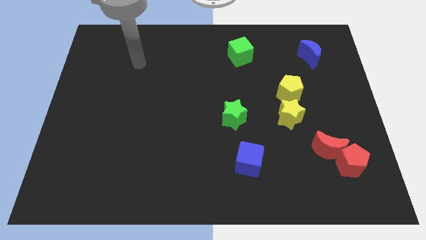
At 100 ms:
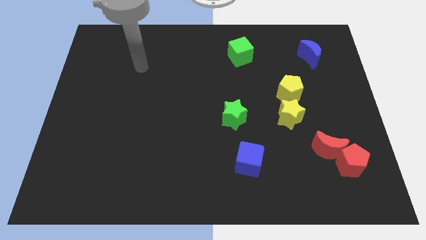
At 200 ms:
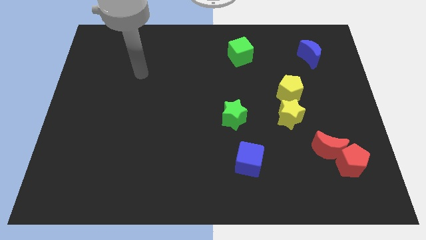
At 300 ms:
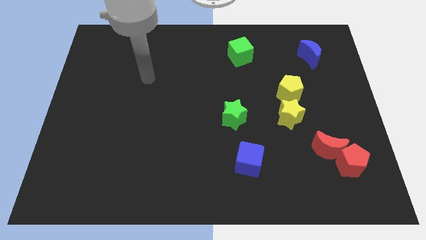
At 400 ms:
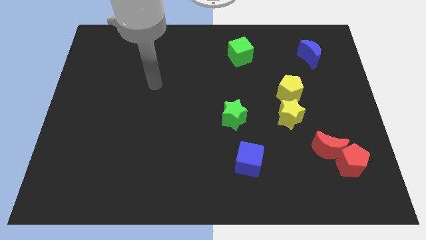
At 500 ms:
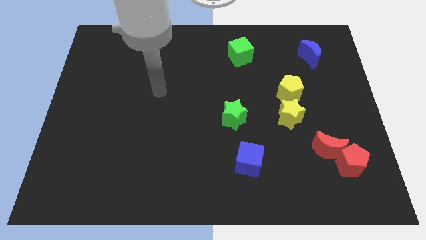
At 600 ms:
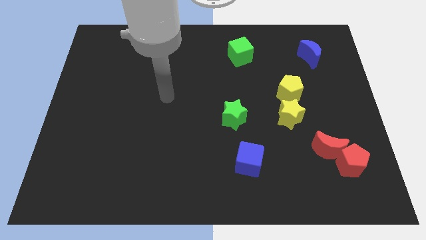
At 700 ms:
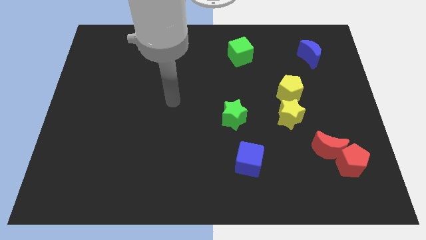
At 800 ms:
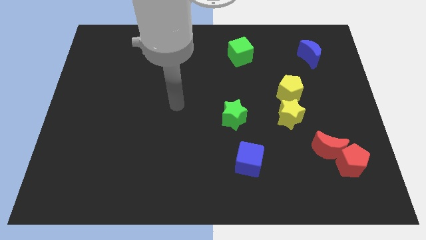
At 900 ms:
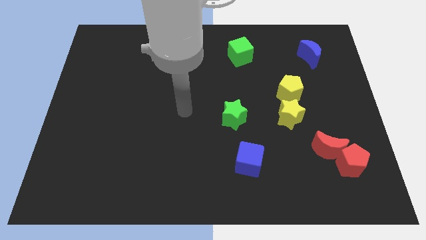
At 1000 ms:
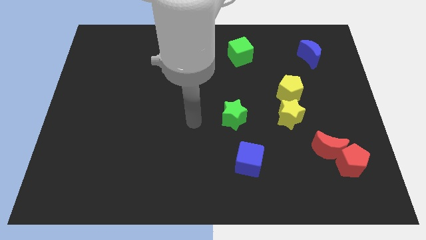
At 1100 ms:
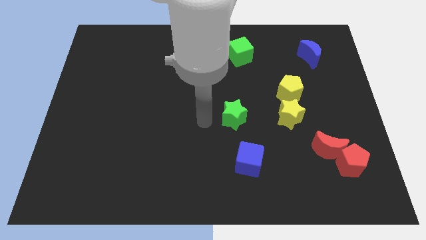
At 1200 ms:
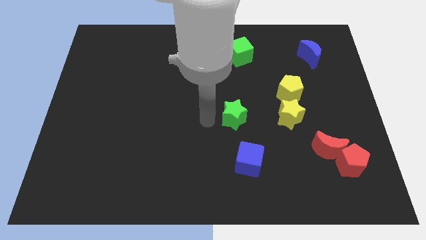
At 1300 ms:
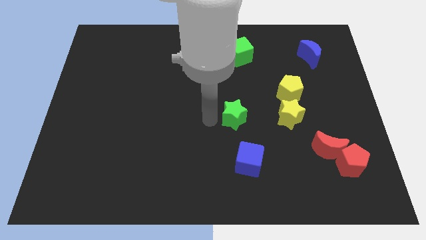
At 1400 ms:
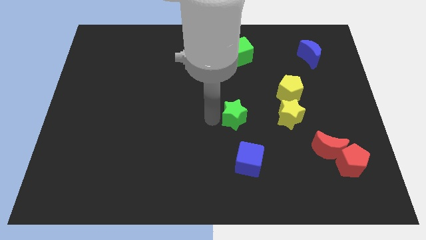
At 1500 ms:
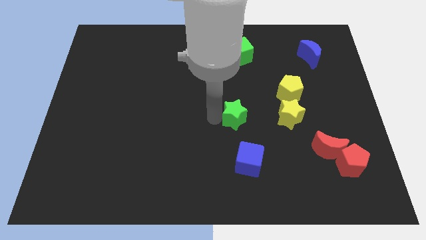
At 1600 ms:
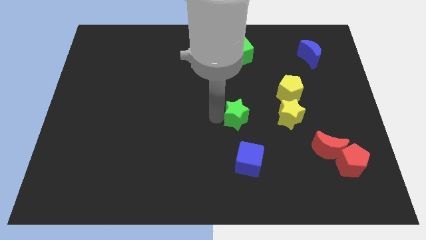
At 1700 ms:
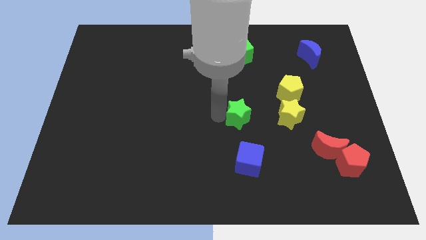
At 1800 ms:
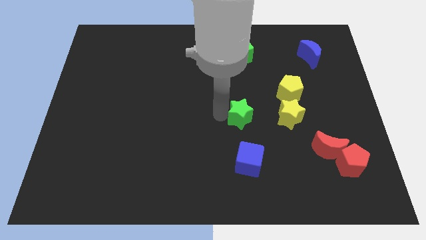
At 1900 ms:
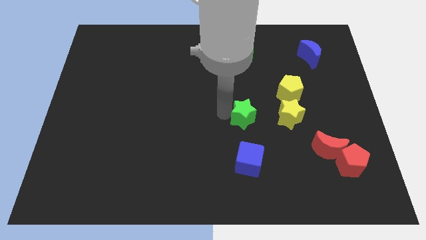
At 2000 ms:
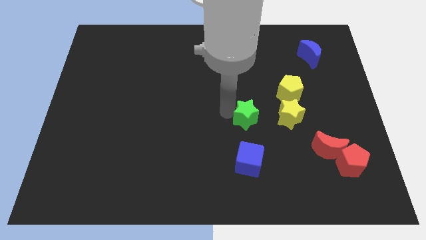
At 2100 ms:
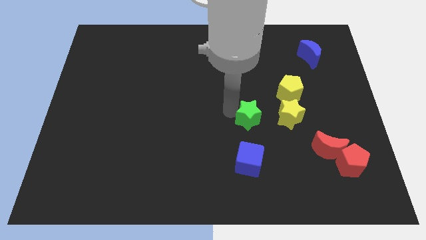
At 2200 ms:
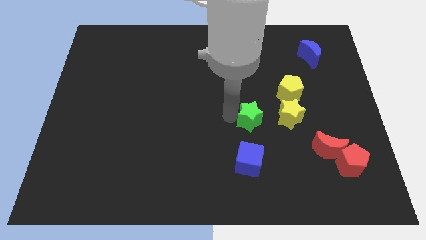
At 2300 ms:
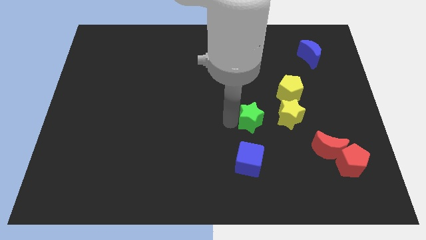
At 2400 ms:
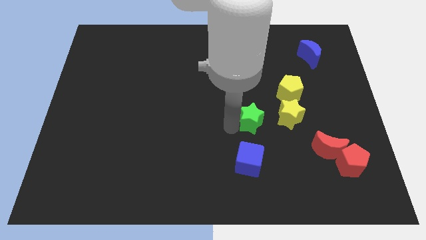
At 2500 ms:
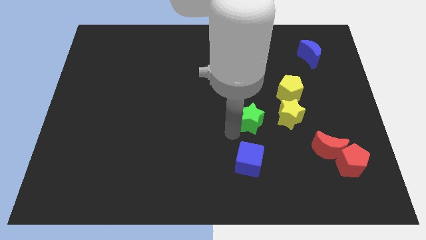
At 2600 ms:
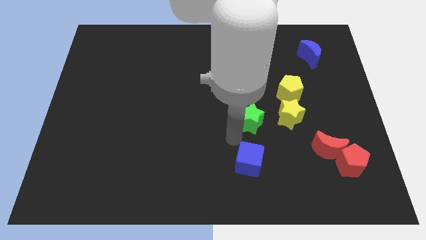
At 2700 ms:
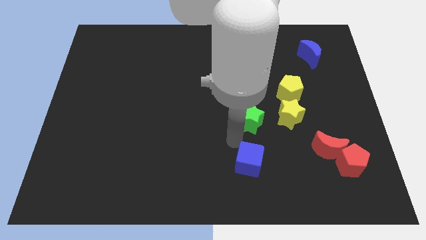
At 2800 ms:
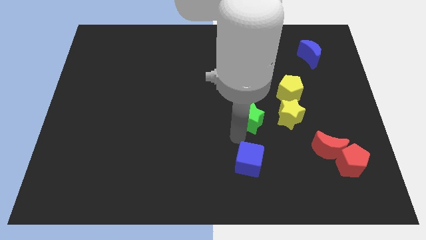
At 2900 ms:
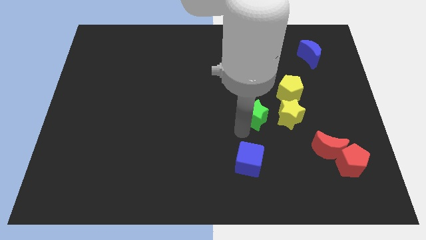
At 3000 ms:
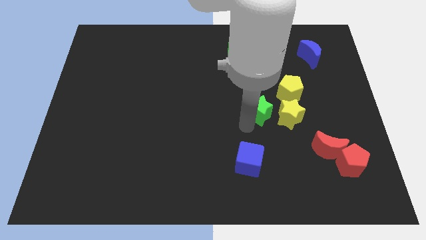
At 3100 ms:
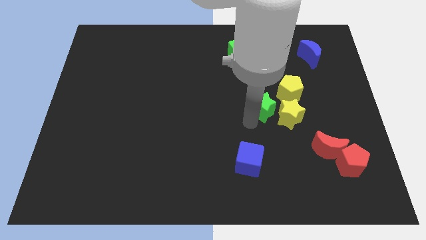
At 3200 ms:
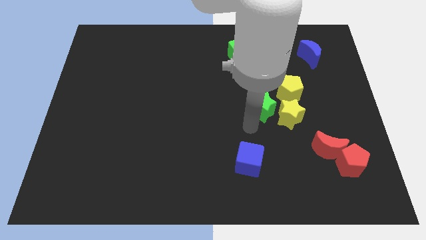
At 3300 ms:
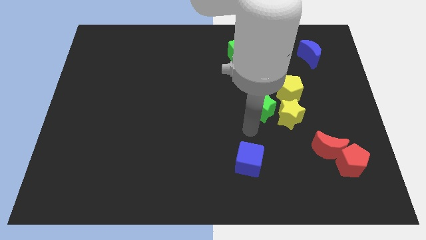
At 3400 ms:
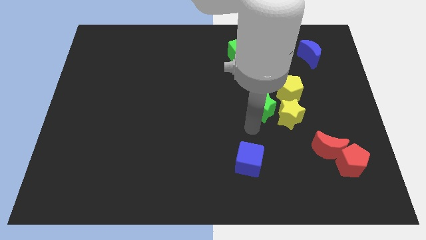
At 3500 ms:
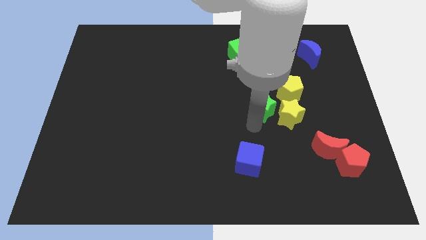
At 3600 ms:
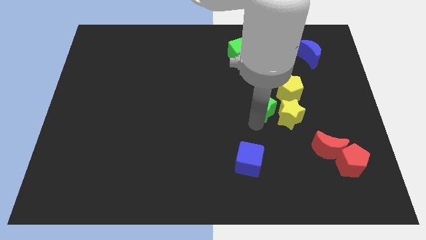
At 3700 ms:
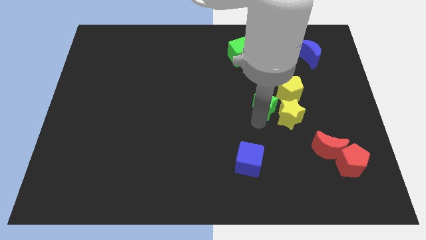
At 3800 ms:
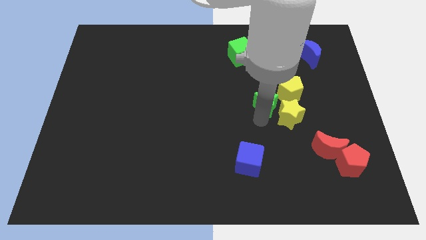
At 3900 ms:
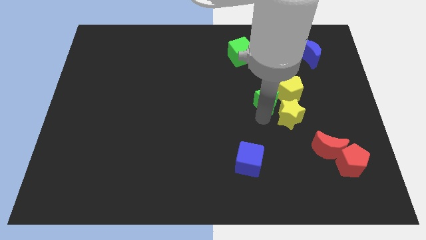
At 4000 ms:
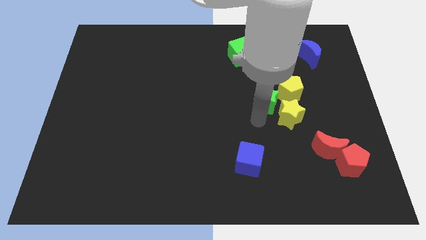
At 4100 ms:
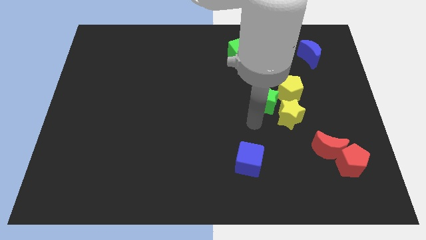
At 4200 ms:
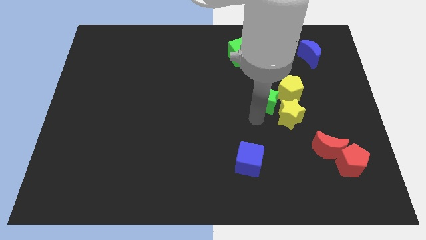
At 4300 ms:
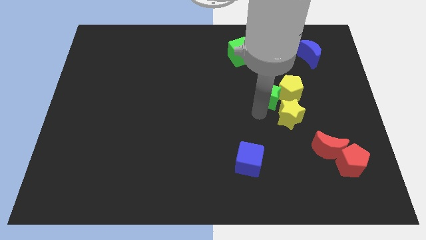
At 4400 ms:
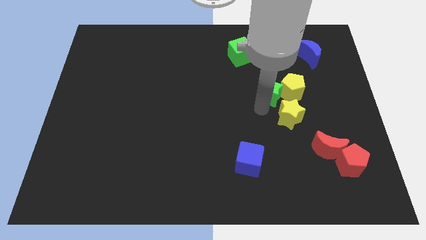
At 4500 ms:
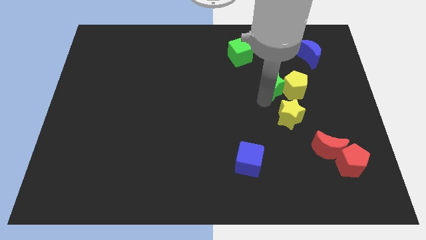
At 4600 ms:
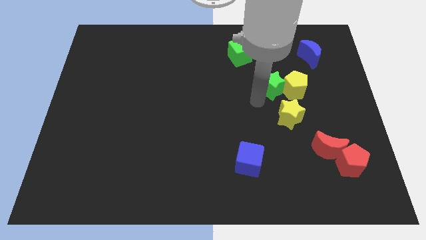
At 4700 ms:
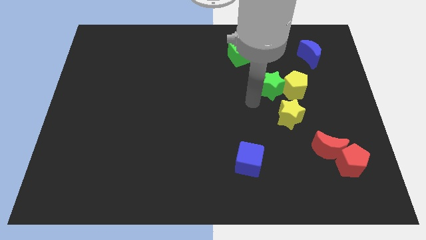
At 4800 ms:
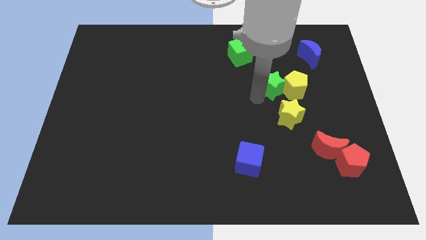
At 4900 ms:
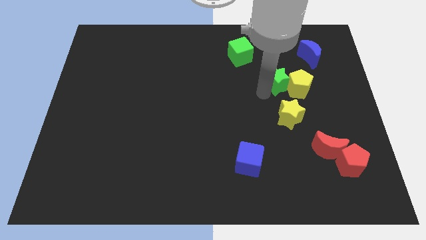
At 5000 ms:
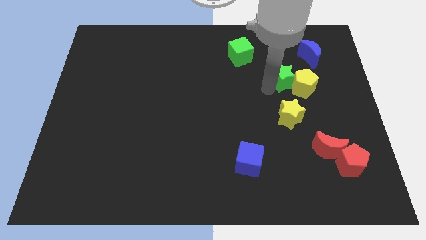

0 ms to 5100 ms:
push the green star to the bottom left of the blue moon

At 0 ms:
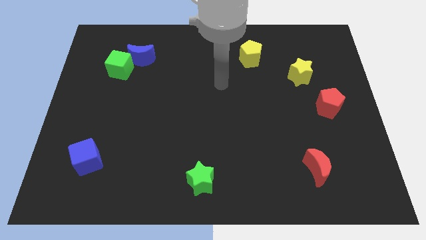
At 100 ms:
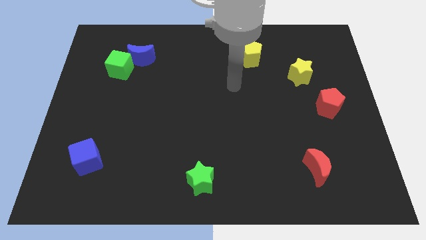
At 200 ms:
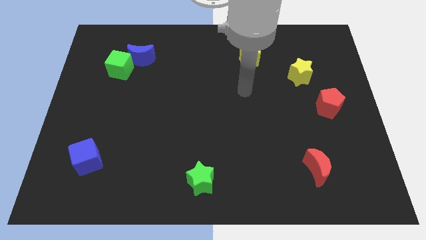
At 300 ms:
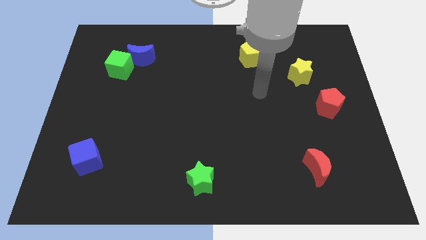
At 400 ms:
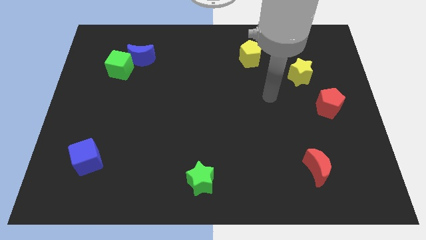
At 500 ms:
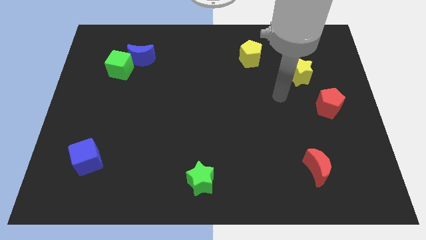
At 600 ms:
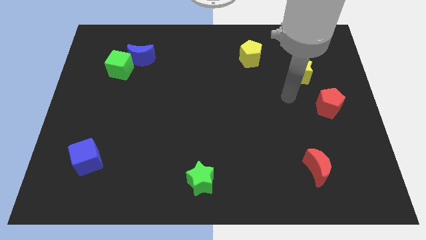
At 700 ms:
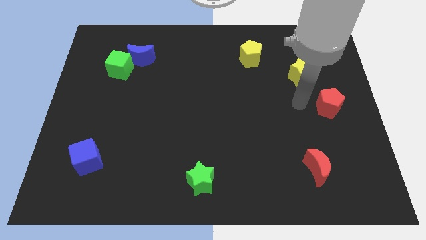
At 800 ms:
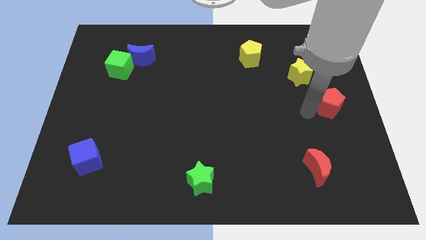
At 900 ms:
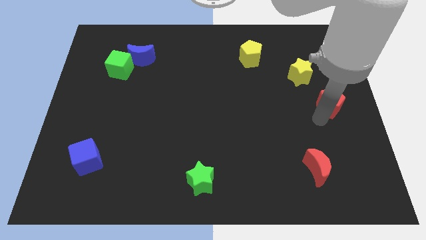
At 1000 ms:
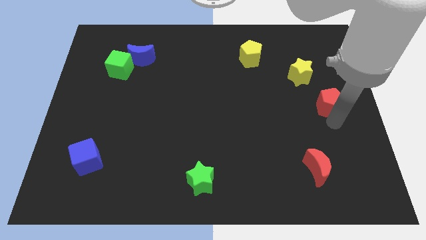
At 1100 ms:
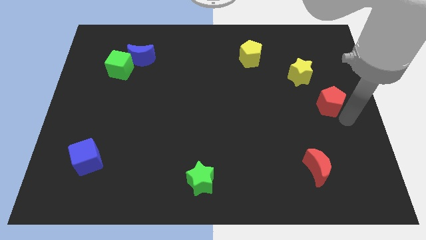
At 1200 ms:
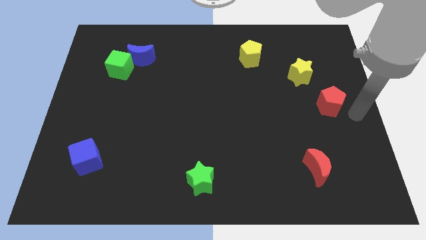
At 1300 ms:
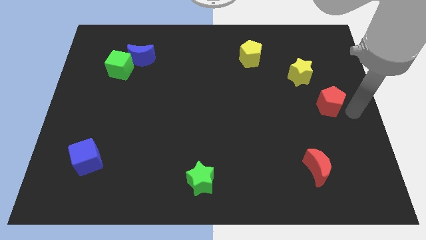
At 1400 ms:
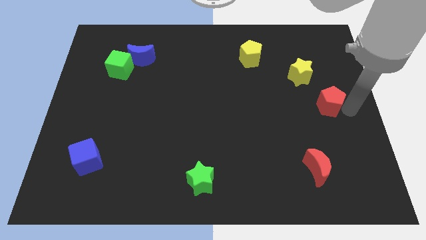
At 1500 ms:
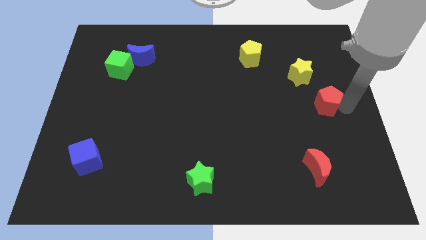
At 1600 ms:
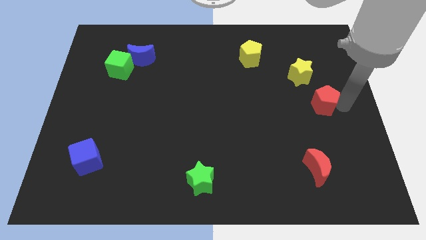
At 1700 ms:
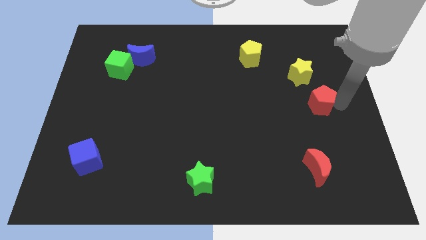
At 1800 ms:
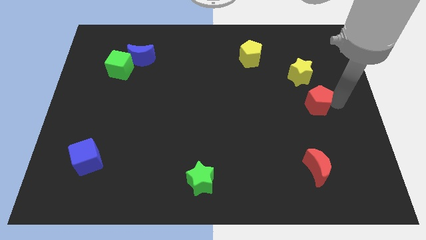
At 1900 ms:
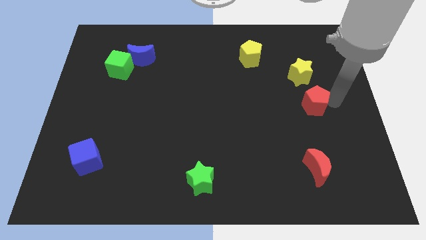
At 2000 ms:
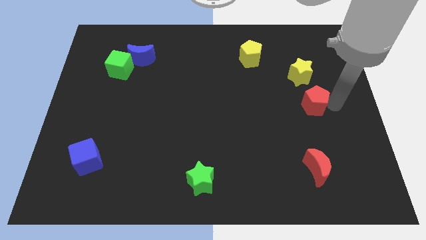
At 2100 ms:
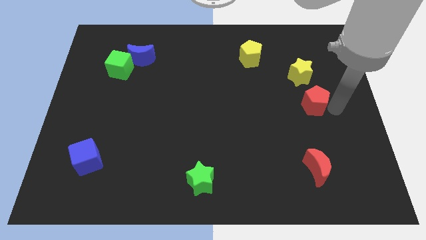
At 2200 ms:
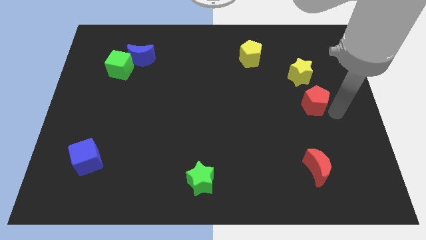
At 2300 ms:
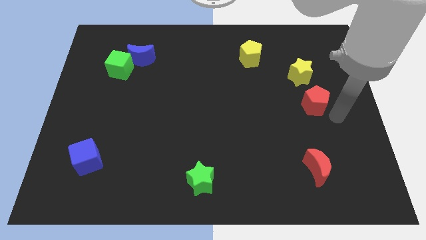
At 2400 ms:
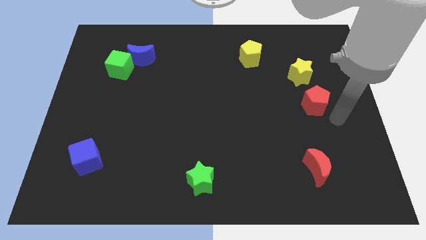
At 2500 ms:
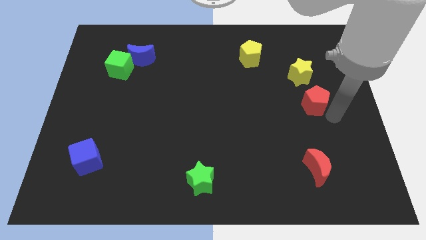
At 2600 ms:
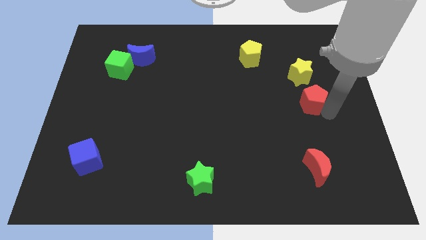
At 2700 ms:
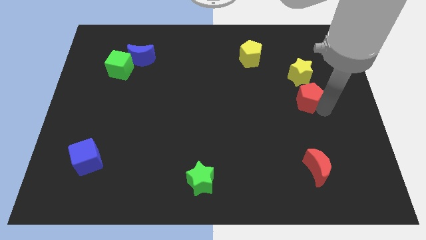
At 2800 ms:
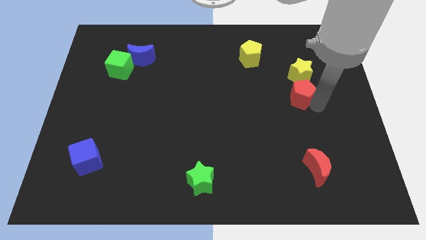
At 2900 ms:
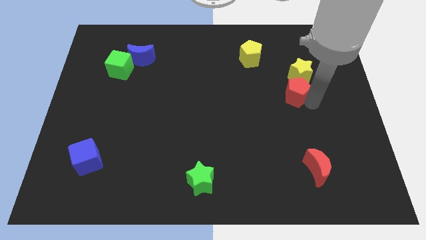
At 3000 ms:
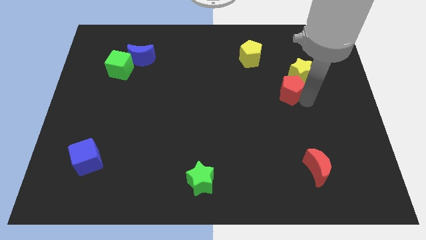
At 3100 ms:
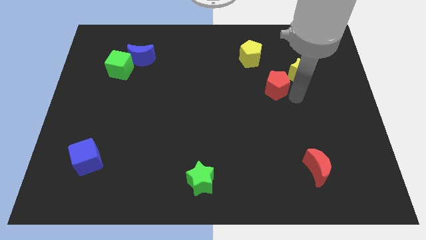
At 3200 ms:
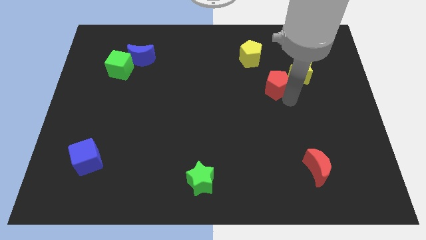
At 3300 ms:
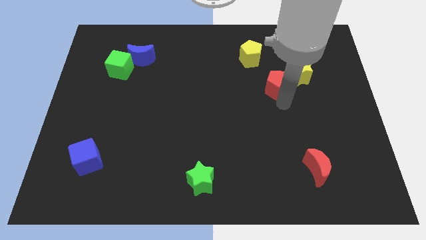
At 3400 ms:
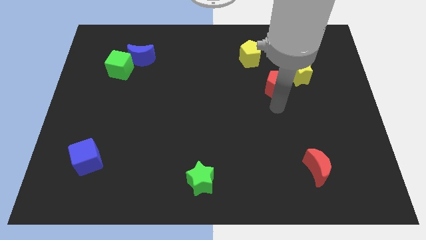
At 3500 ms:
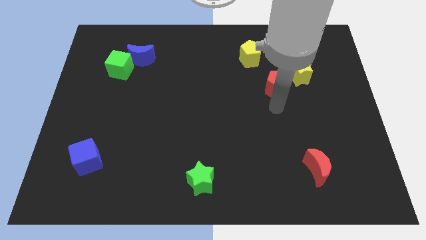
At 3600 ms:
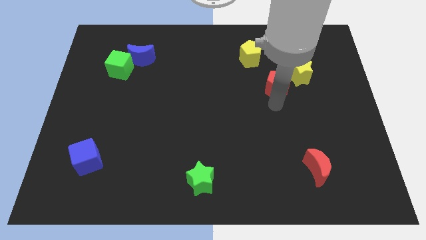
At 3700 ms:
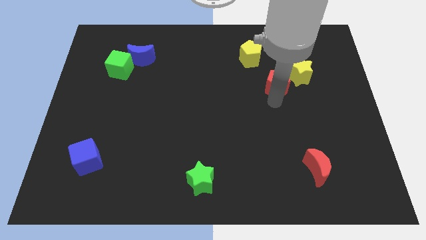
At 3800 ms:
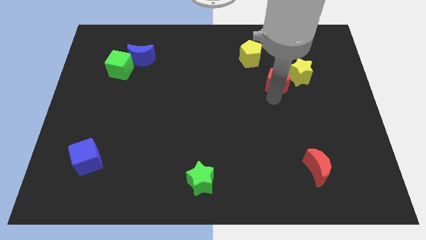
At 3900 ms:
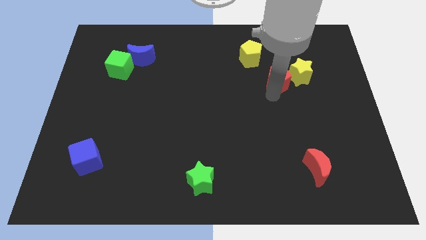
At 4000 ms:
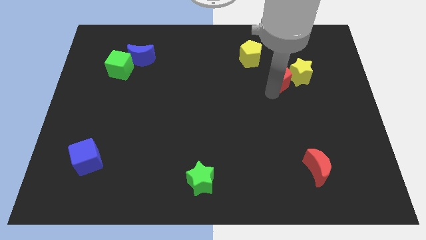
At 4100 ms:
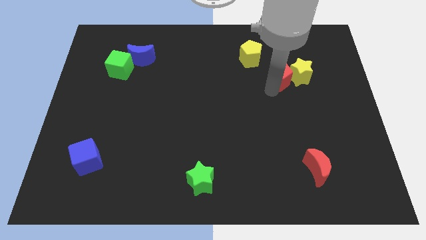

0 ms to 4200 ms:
put the red pentagon diagonally up and to the left of the yellow star
